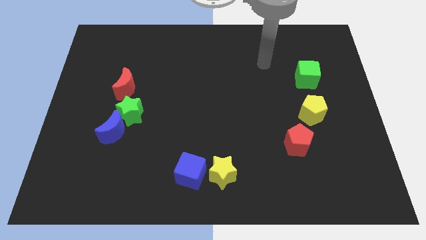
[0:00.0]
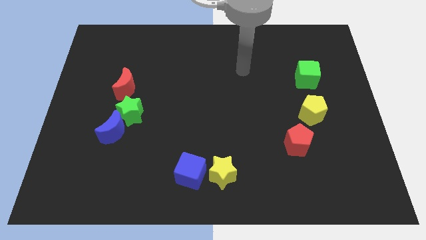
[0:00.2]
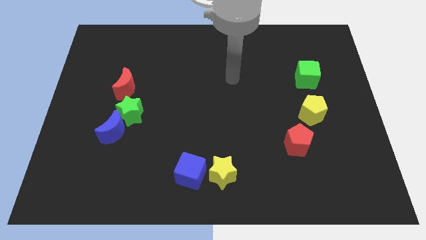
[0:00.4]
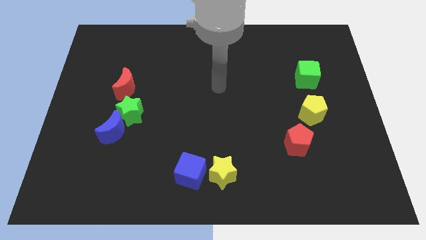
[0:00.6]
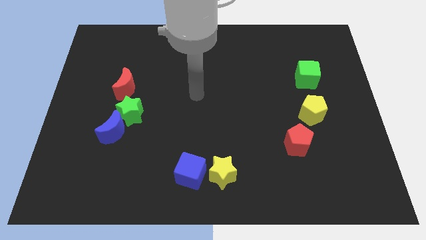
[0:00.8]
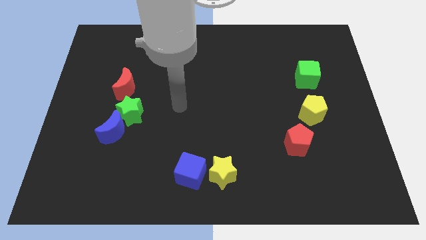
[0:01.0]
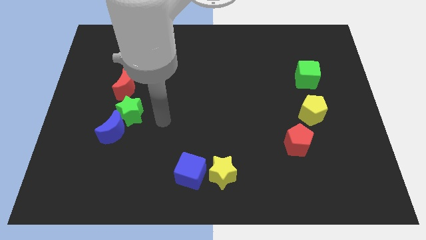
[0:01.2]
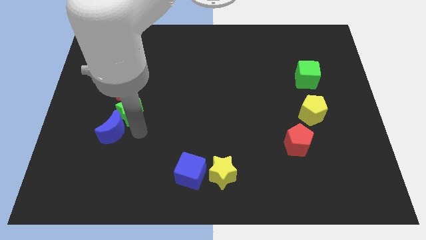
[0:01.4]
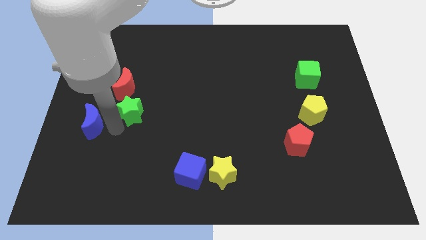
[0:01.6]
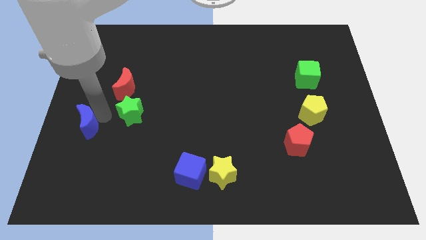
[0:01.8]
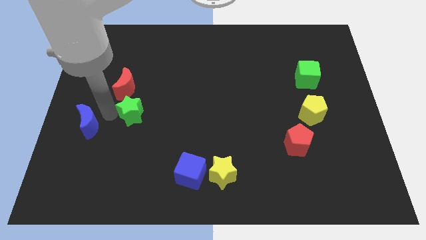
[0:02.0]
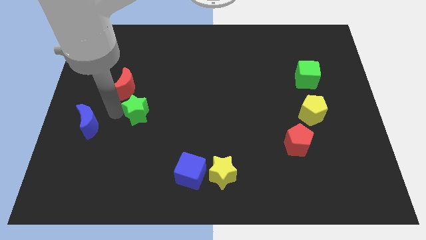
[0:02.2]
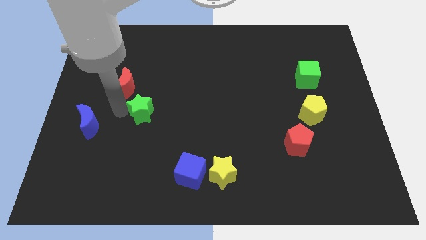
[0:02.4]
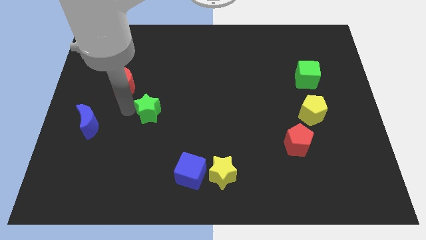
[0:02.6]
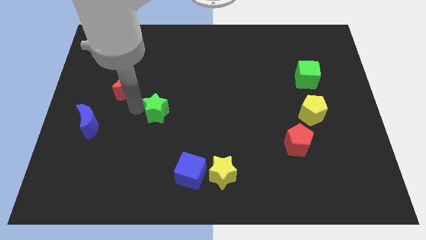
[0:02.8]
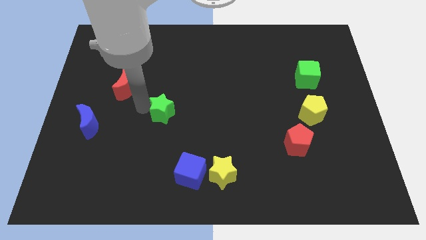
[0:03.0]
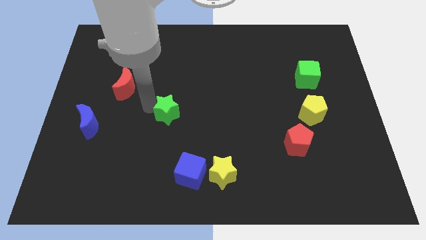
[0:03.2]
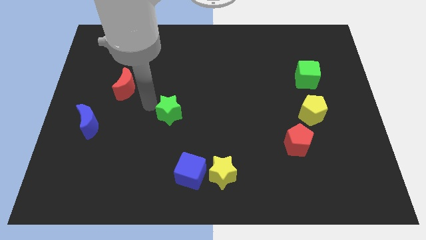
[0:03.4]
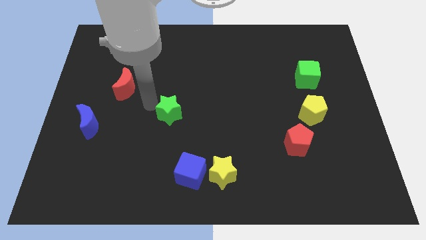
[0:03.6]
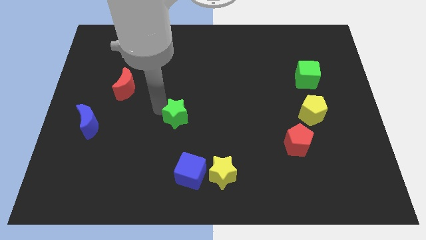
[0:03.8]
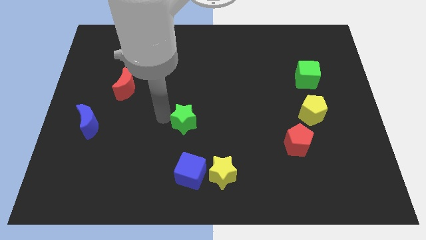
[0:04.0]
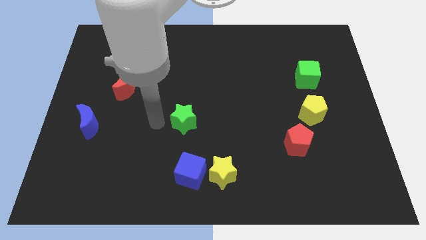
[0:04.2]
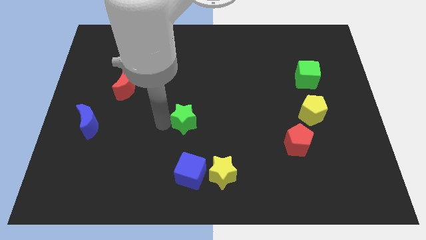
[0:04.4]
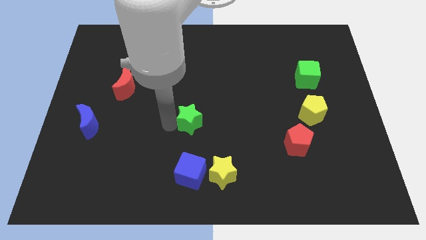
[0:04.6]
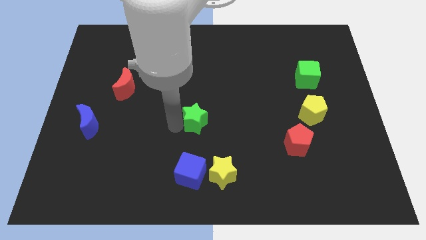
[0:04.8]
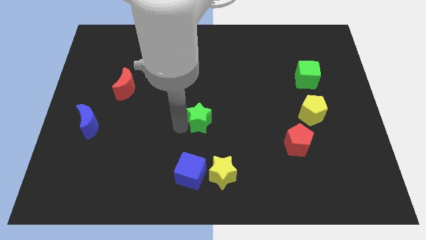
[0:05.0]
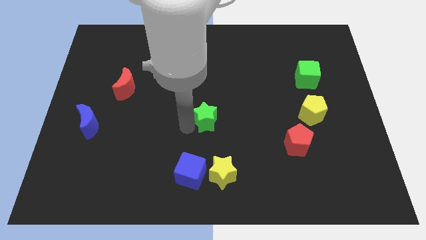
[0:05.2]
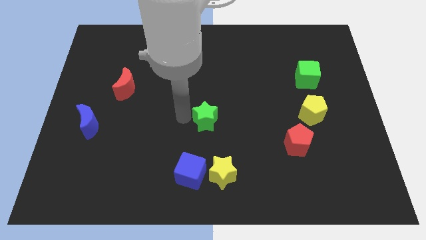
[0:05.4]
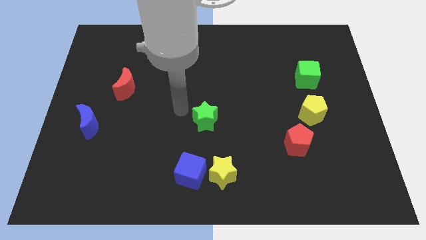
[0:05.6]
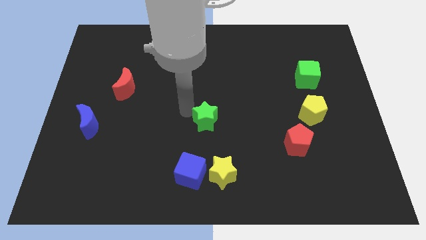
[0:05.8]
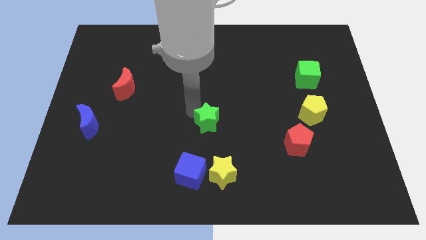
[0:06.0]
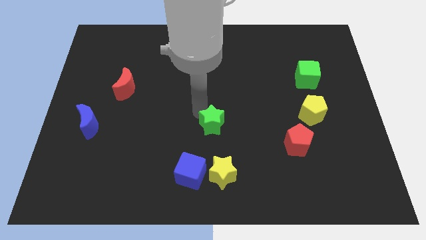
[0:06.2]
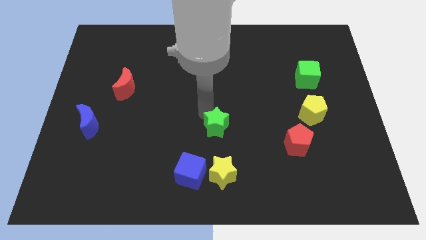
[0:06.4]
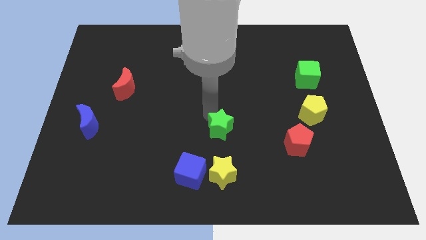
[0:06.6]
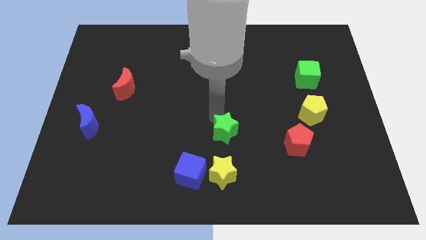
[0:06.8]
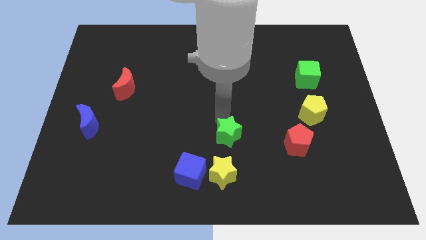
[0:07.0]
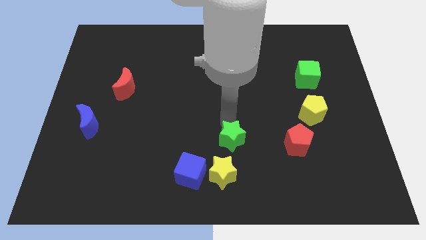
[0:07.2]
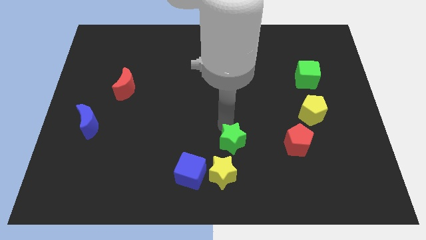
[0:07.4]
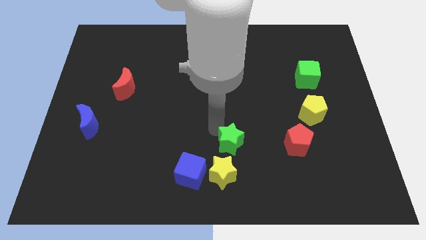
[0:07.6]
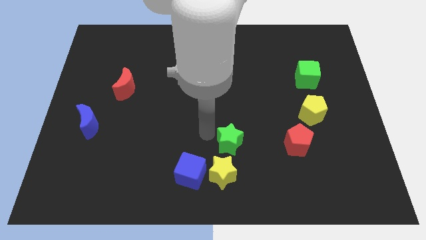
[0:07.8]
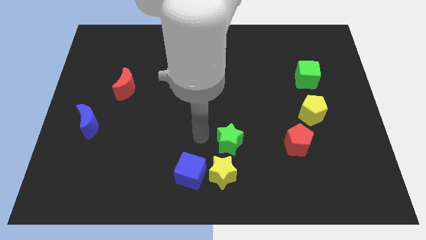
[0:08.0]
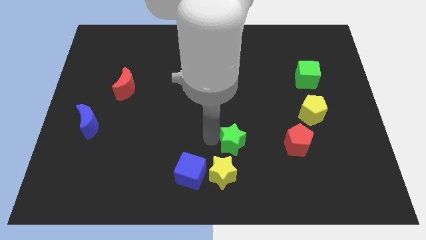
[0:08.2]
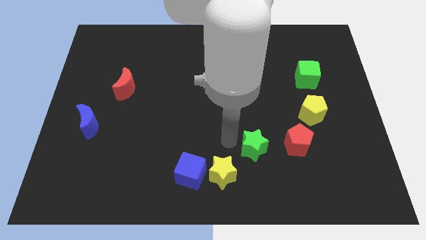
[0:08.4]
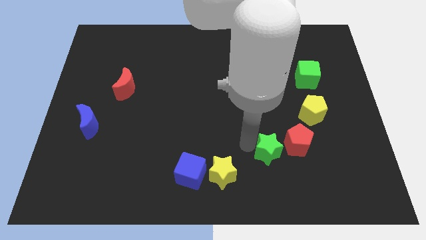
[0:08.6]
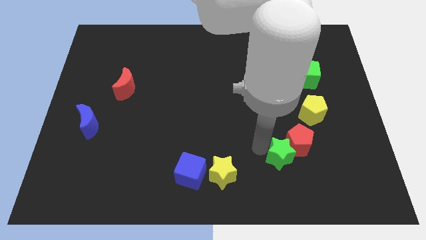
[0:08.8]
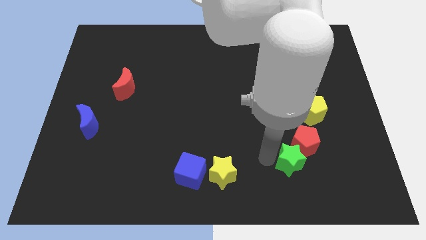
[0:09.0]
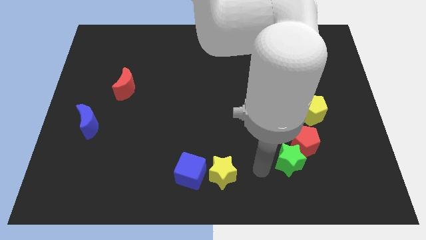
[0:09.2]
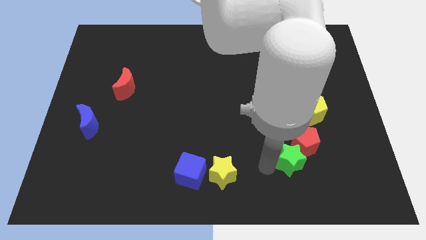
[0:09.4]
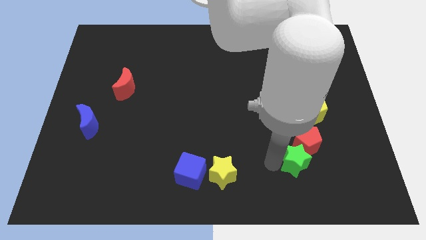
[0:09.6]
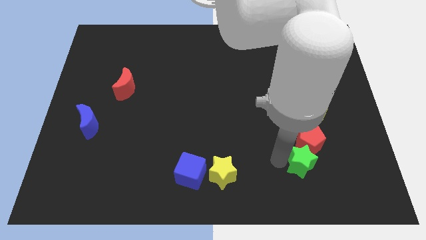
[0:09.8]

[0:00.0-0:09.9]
slide the green star below the yellow pentagon

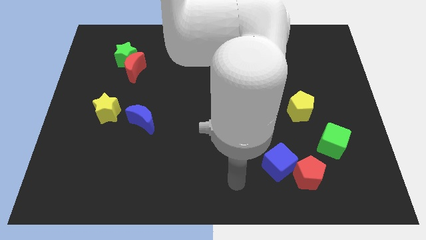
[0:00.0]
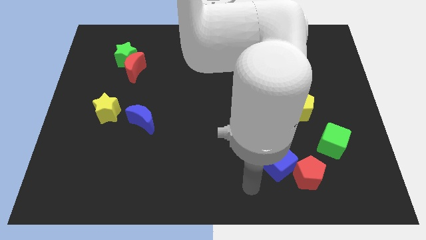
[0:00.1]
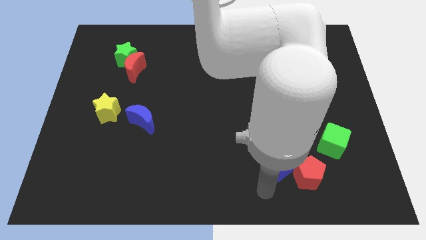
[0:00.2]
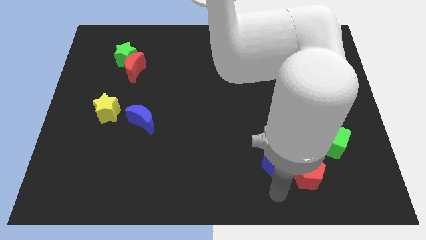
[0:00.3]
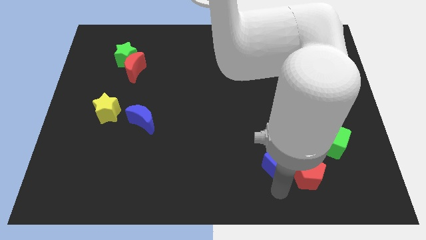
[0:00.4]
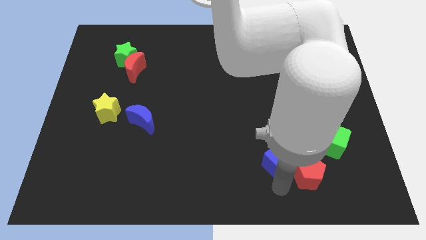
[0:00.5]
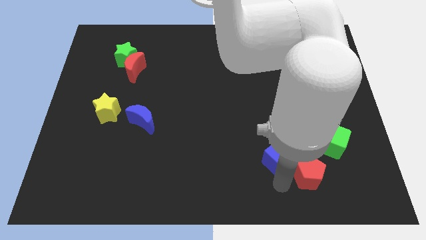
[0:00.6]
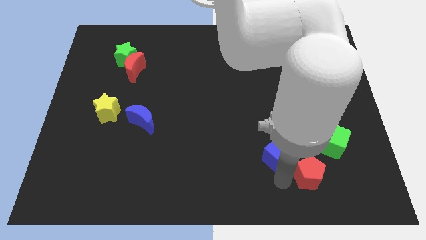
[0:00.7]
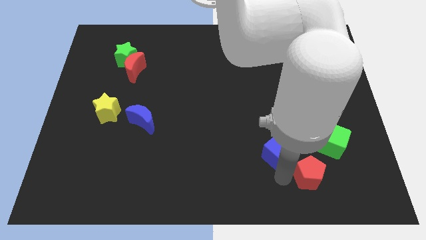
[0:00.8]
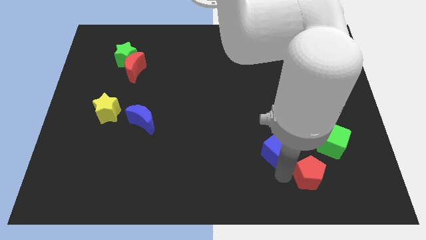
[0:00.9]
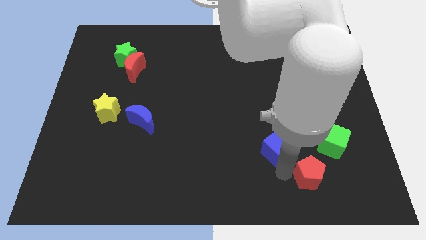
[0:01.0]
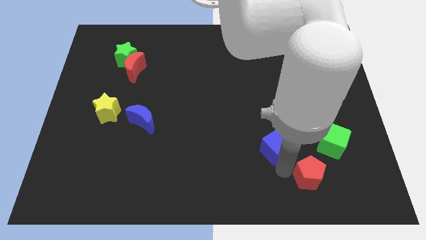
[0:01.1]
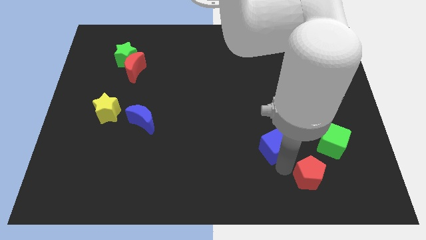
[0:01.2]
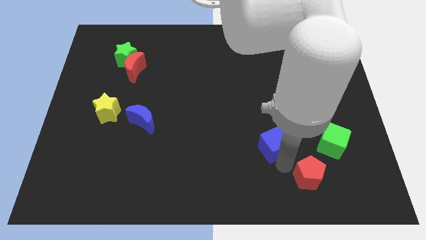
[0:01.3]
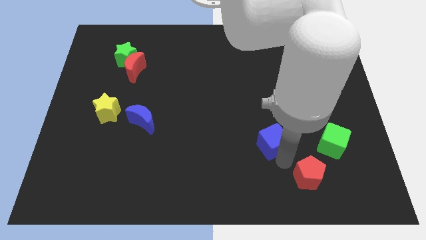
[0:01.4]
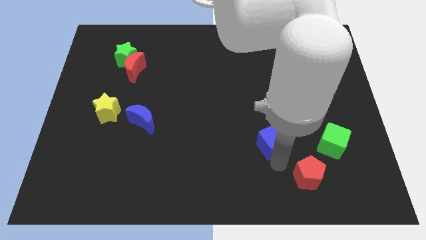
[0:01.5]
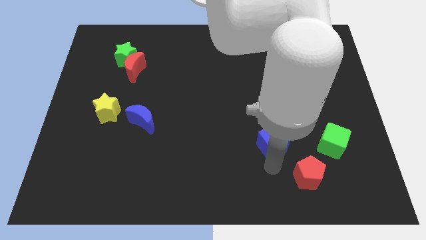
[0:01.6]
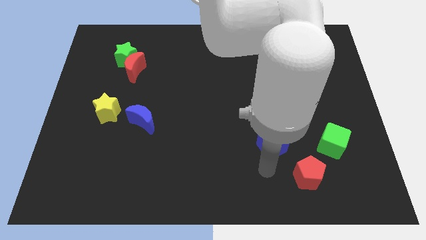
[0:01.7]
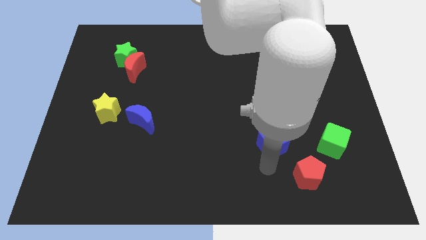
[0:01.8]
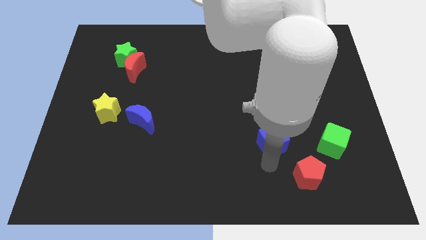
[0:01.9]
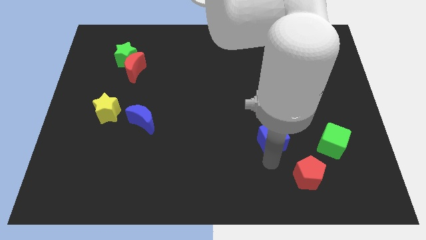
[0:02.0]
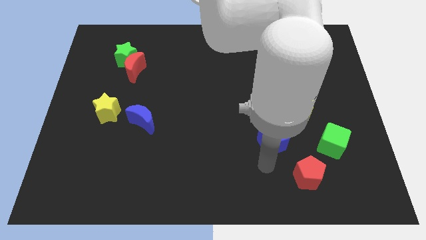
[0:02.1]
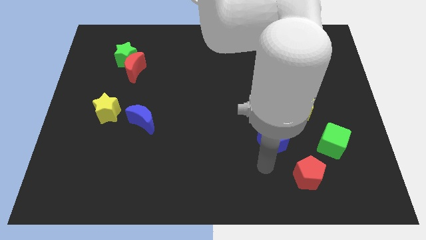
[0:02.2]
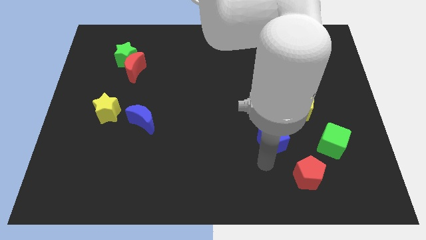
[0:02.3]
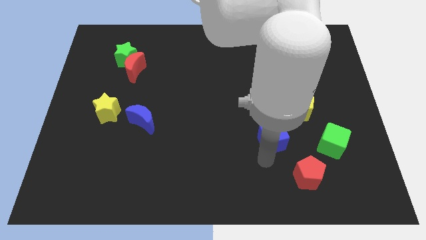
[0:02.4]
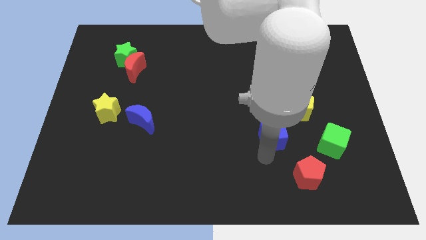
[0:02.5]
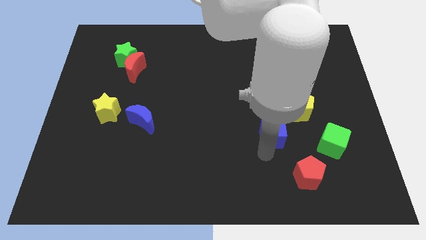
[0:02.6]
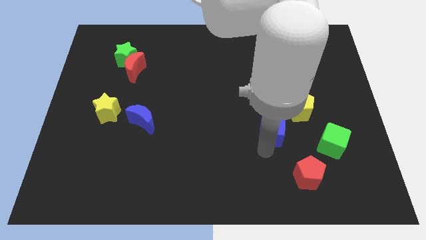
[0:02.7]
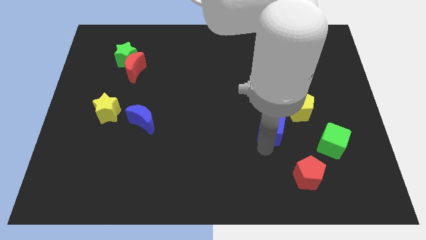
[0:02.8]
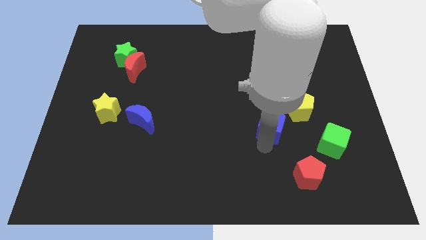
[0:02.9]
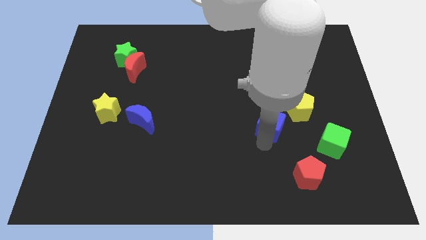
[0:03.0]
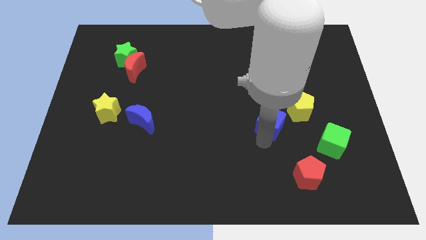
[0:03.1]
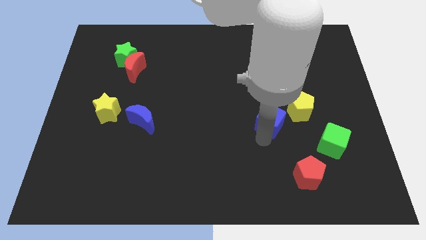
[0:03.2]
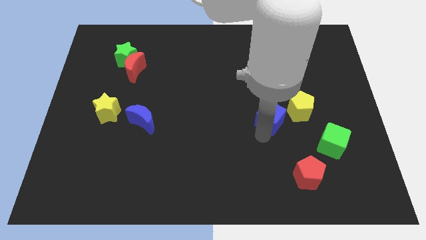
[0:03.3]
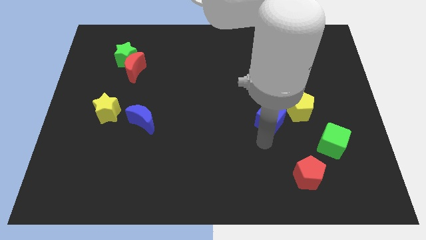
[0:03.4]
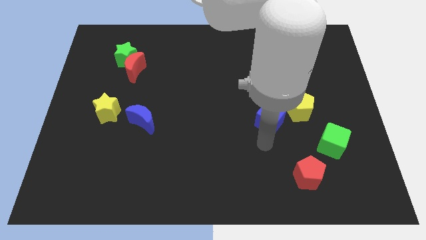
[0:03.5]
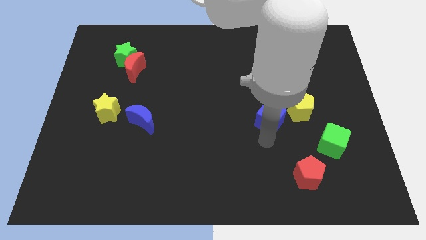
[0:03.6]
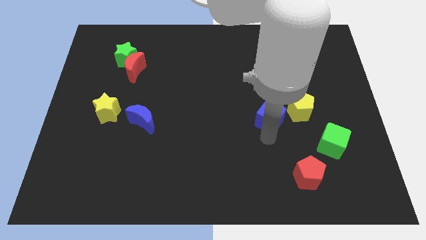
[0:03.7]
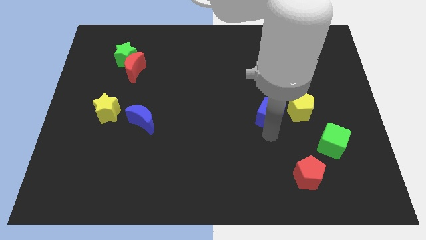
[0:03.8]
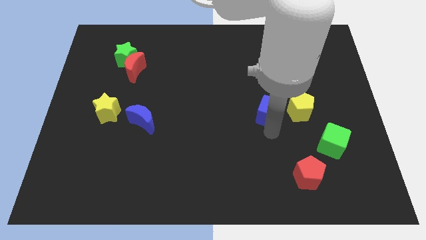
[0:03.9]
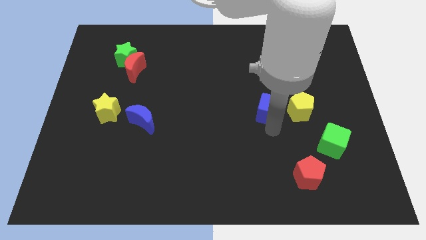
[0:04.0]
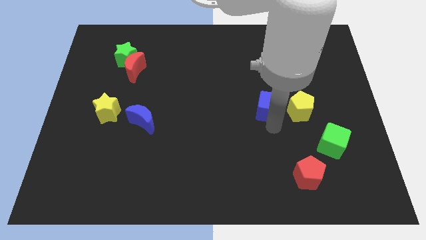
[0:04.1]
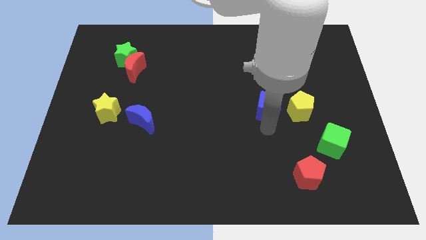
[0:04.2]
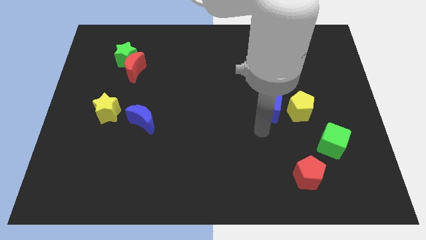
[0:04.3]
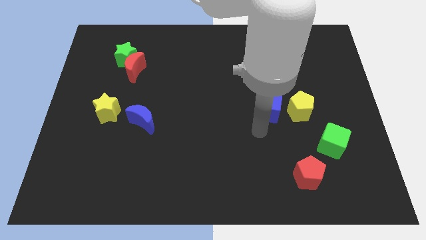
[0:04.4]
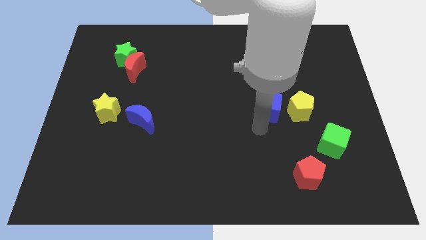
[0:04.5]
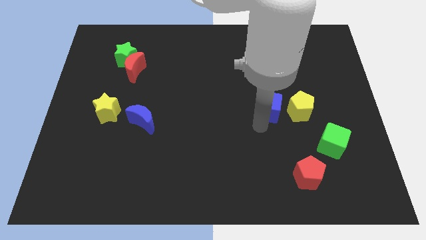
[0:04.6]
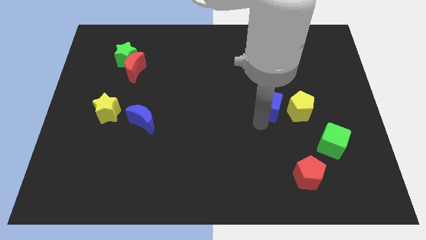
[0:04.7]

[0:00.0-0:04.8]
put the blue cube to the top left side of the yellow pentagon
